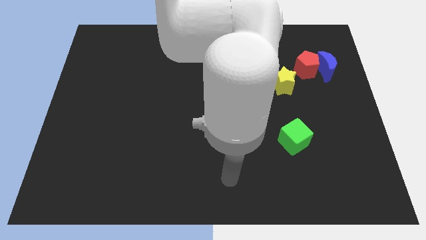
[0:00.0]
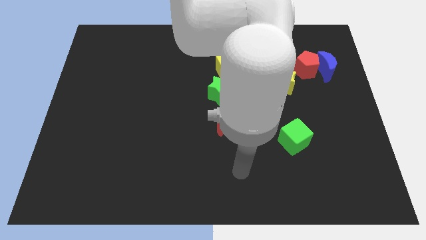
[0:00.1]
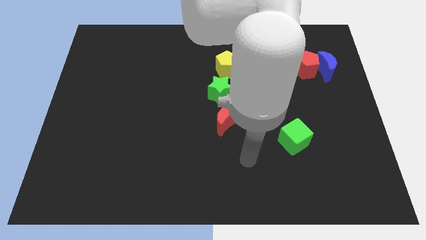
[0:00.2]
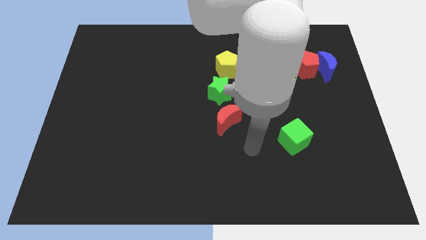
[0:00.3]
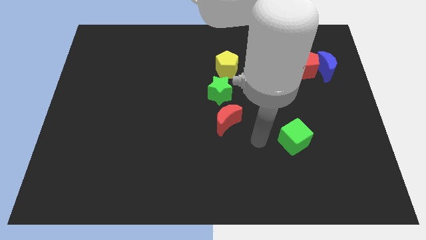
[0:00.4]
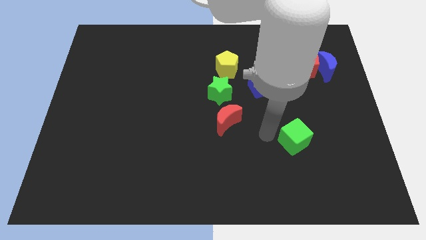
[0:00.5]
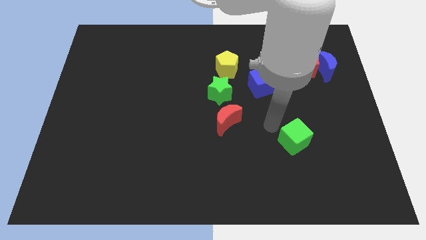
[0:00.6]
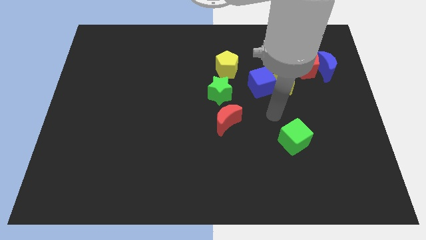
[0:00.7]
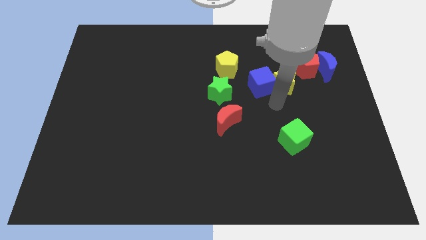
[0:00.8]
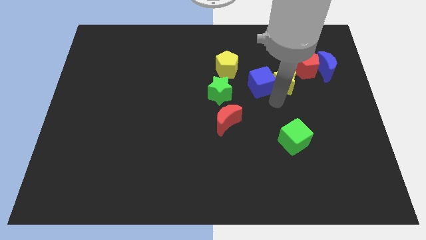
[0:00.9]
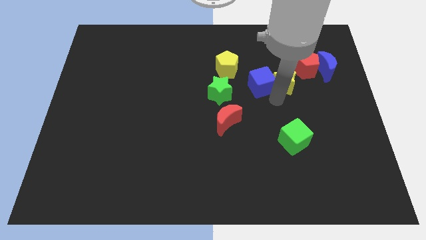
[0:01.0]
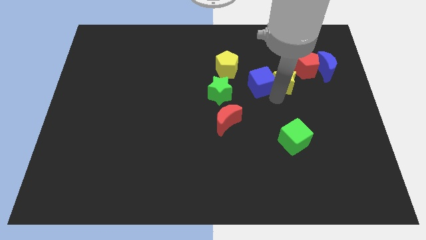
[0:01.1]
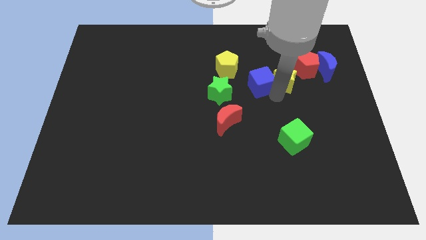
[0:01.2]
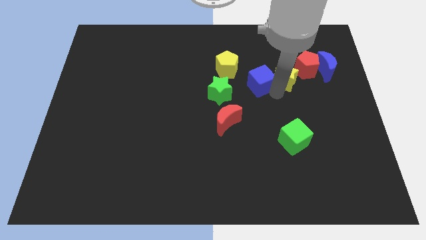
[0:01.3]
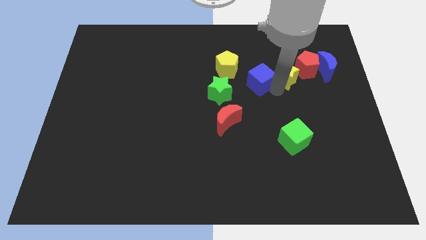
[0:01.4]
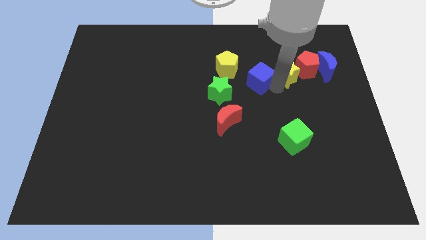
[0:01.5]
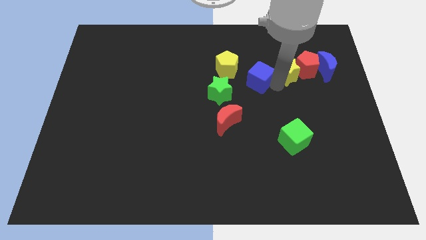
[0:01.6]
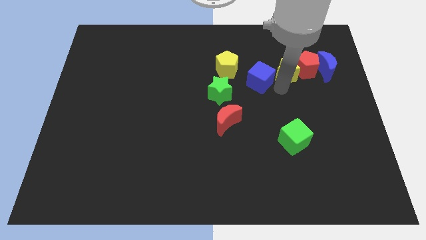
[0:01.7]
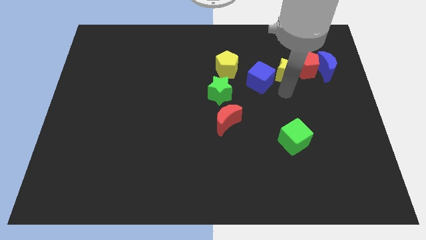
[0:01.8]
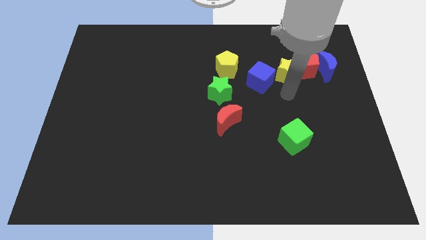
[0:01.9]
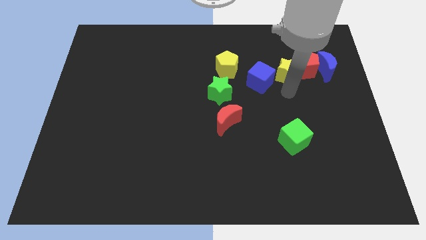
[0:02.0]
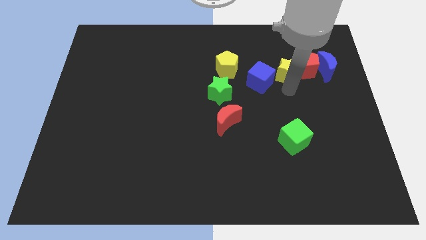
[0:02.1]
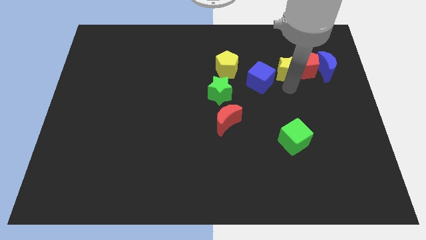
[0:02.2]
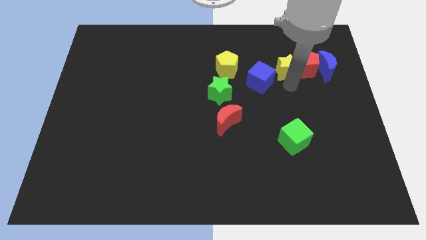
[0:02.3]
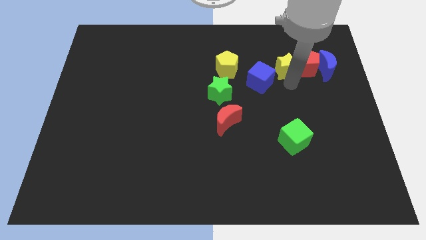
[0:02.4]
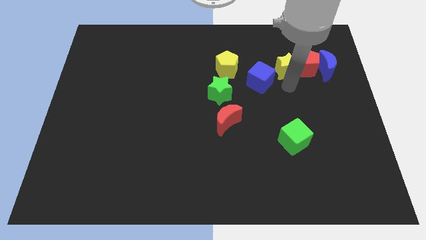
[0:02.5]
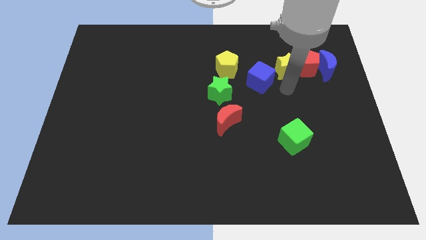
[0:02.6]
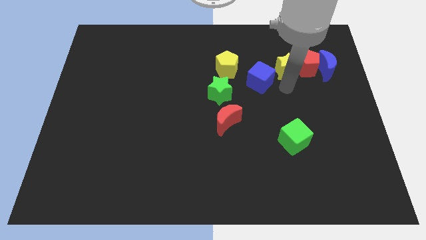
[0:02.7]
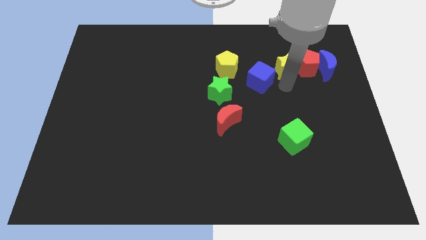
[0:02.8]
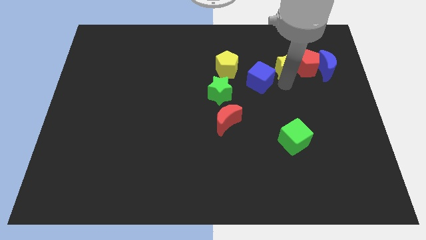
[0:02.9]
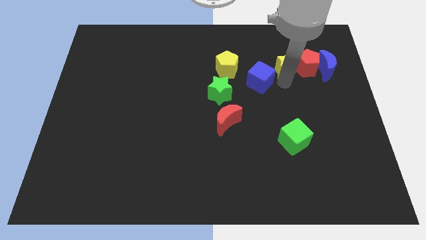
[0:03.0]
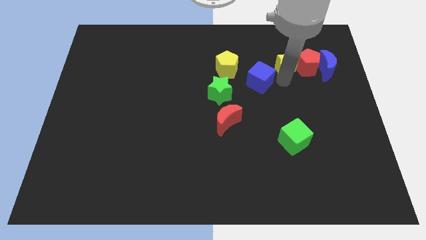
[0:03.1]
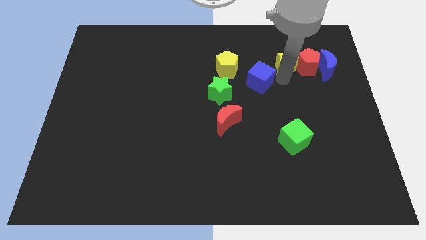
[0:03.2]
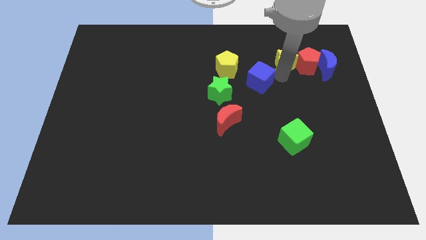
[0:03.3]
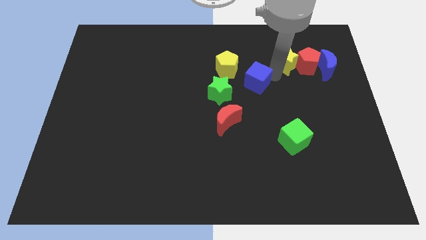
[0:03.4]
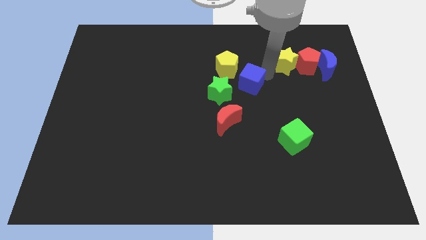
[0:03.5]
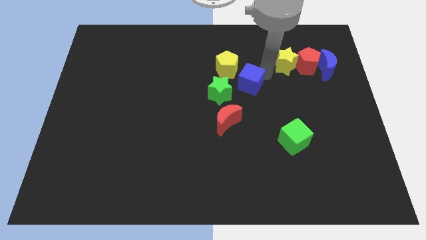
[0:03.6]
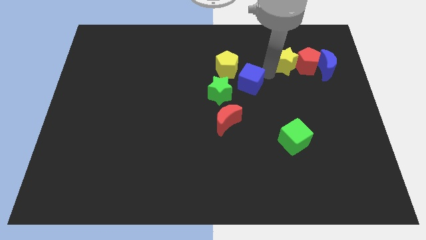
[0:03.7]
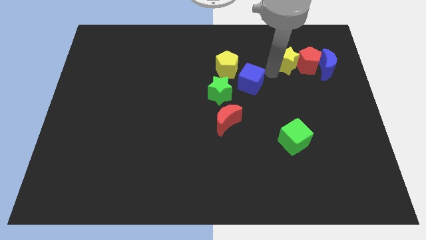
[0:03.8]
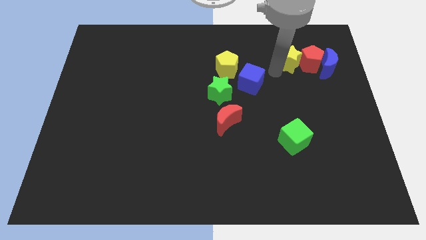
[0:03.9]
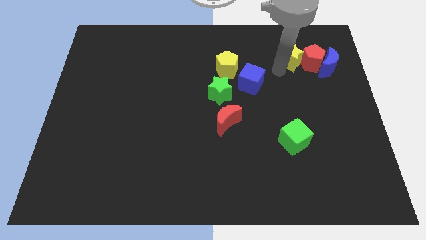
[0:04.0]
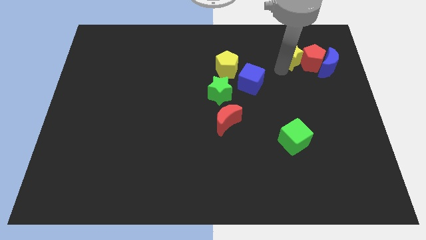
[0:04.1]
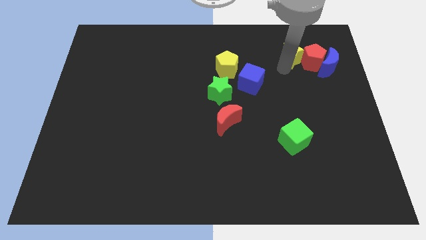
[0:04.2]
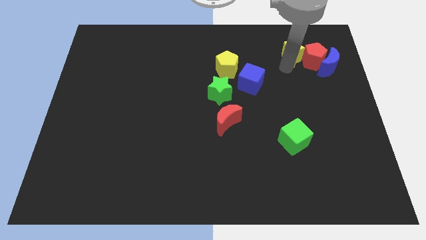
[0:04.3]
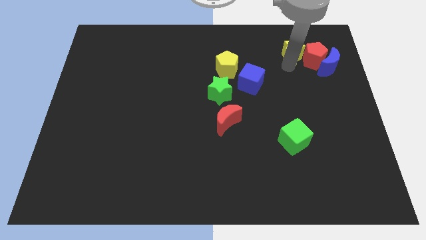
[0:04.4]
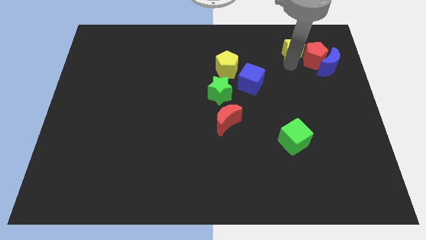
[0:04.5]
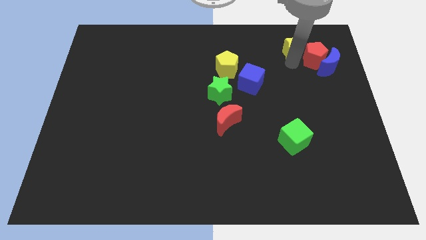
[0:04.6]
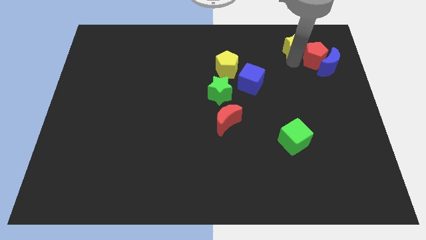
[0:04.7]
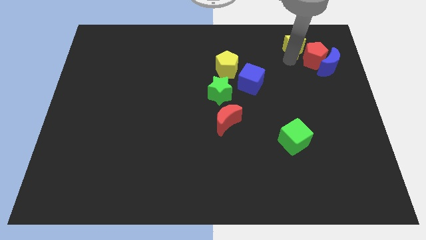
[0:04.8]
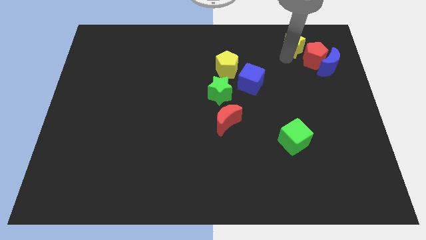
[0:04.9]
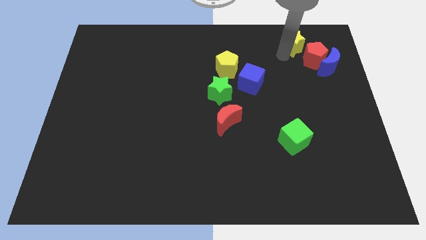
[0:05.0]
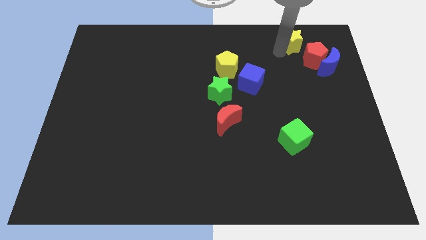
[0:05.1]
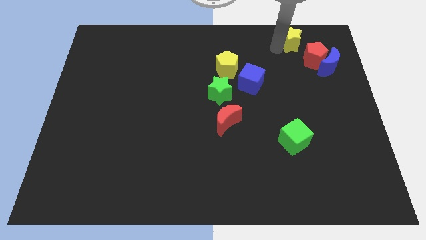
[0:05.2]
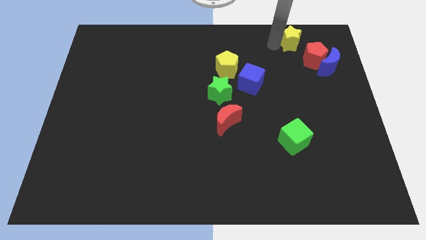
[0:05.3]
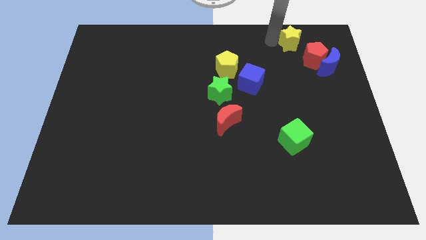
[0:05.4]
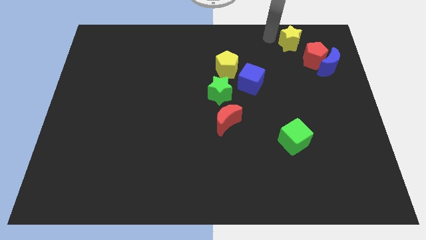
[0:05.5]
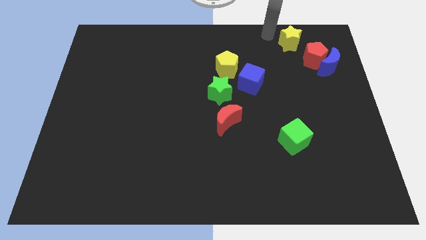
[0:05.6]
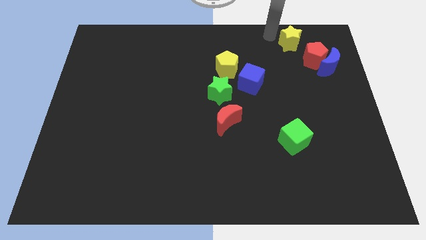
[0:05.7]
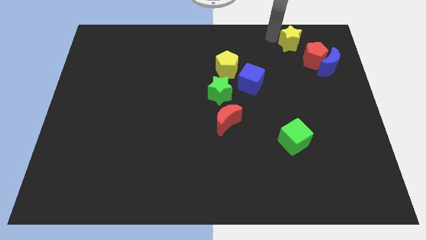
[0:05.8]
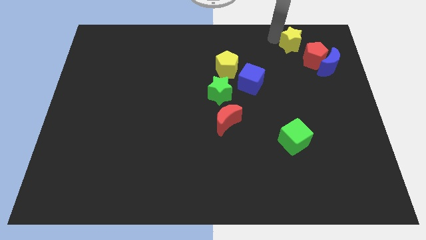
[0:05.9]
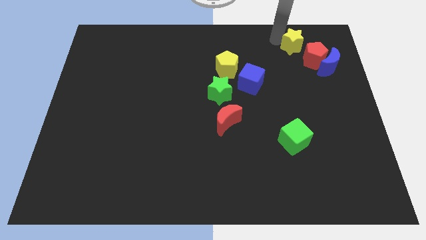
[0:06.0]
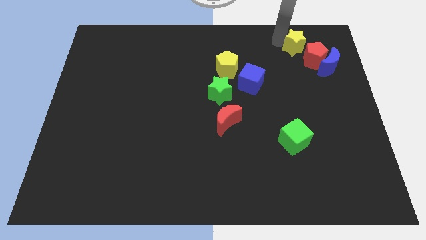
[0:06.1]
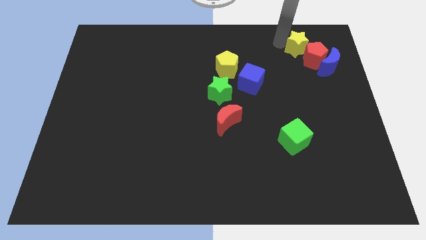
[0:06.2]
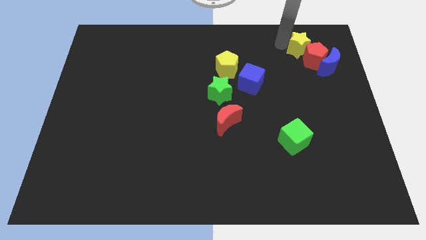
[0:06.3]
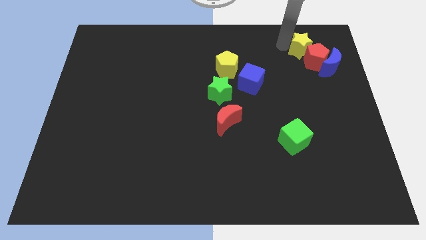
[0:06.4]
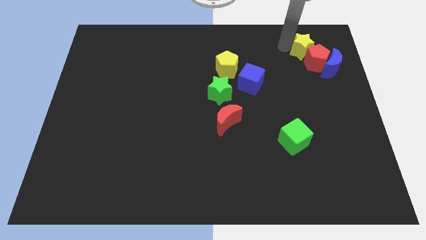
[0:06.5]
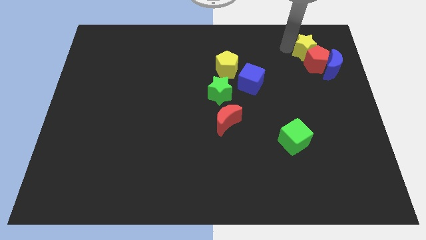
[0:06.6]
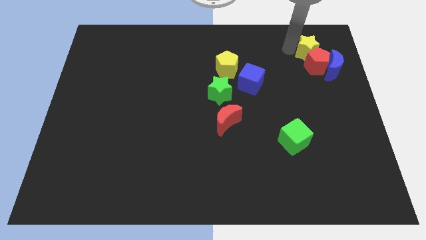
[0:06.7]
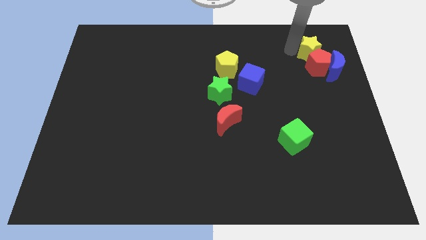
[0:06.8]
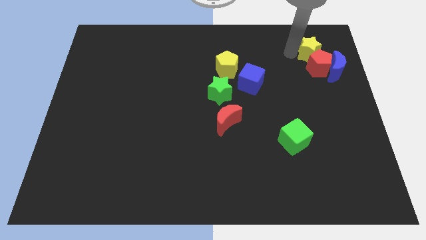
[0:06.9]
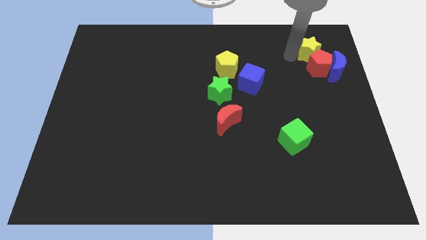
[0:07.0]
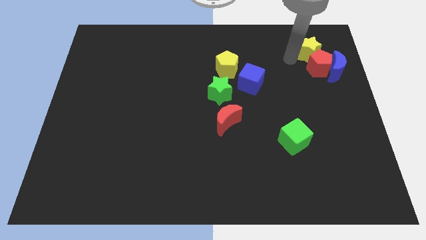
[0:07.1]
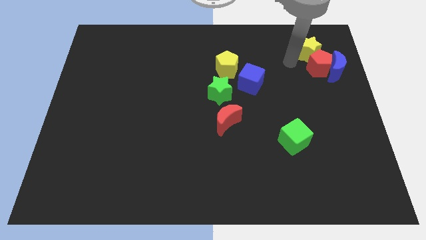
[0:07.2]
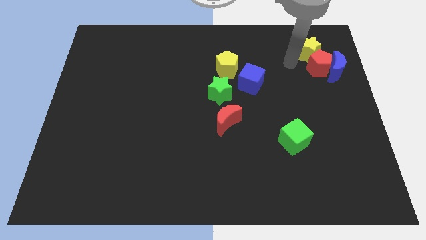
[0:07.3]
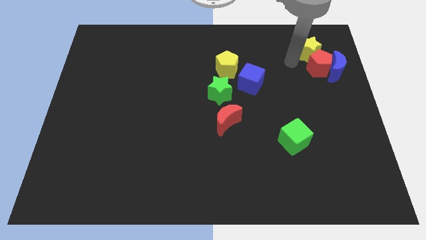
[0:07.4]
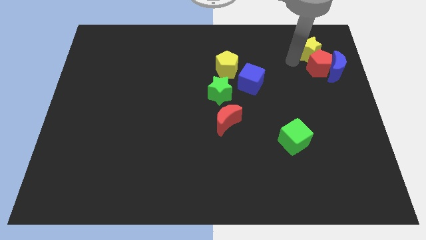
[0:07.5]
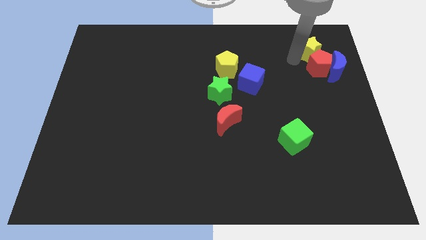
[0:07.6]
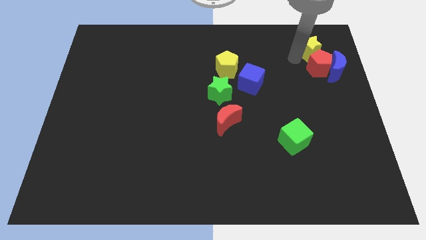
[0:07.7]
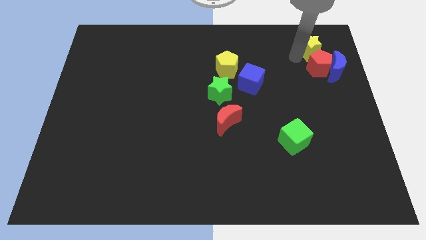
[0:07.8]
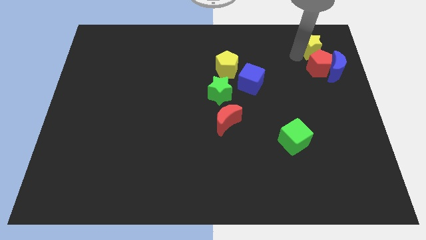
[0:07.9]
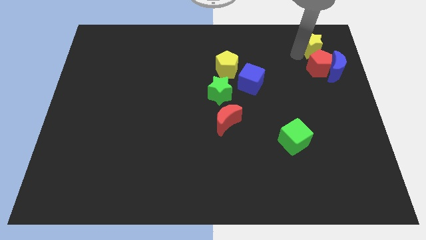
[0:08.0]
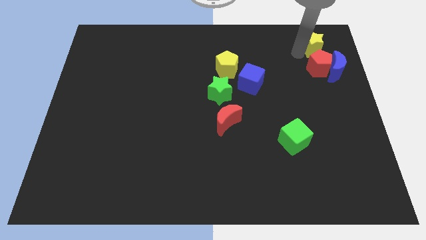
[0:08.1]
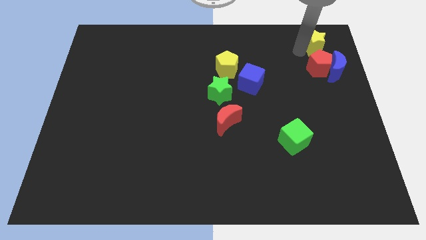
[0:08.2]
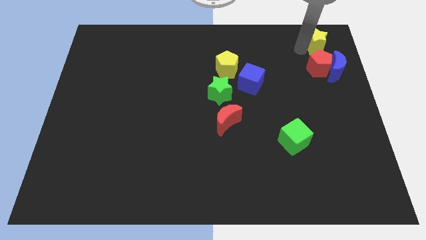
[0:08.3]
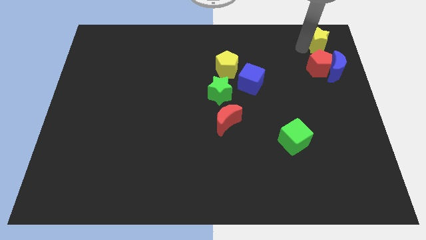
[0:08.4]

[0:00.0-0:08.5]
slide the yellow star to the upper right corner
